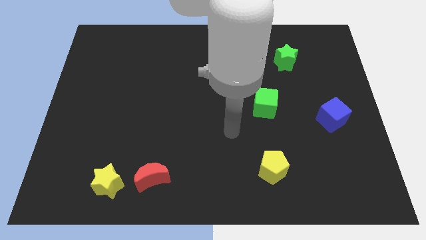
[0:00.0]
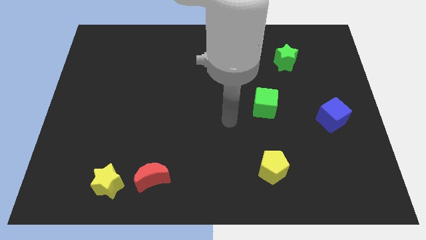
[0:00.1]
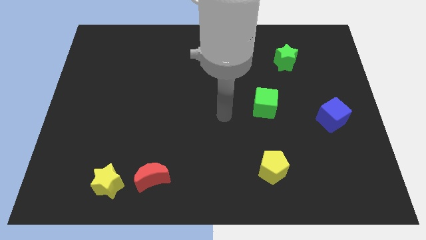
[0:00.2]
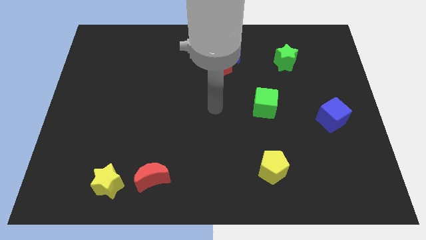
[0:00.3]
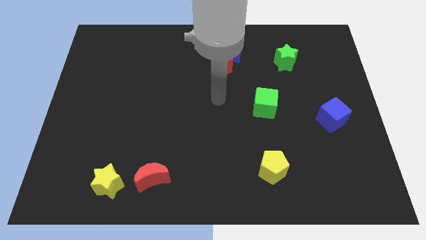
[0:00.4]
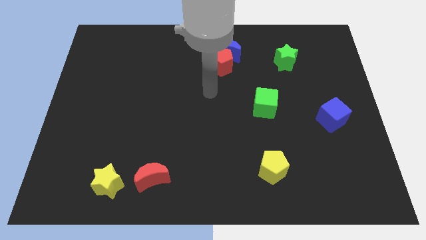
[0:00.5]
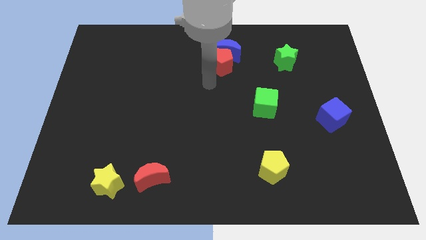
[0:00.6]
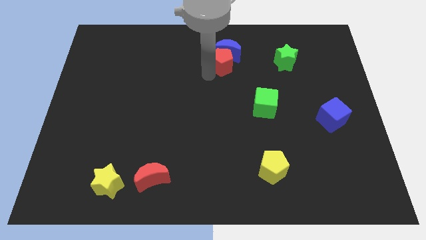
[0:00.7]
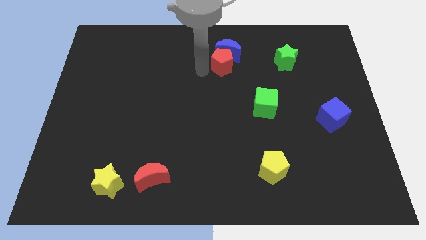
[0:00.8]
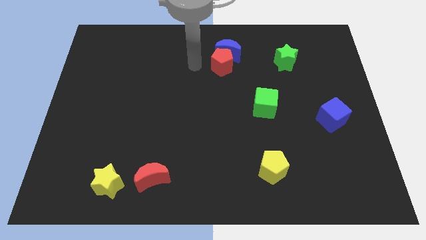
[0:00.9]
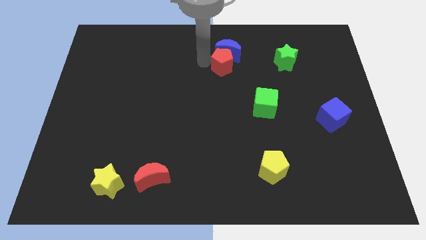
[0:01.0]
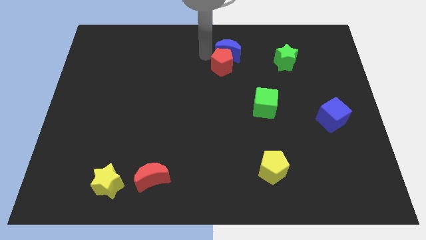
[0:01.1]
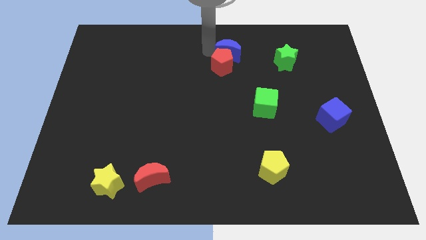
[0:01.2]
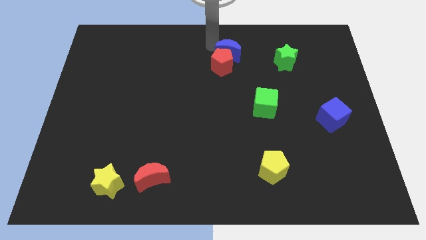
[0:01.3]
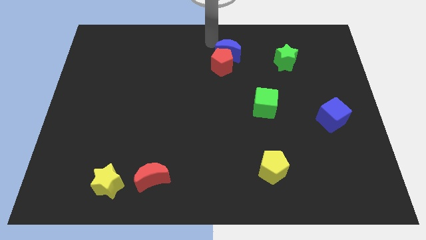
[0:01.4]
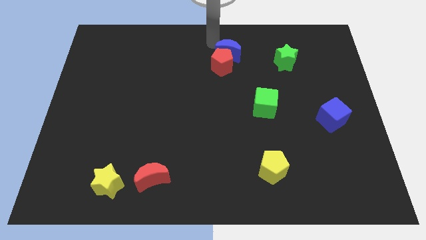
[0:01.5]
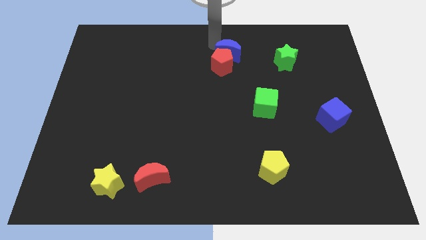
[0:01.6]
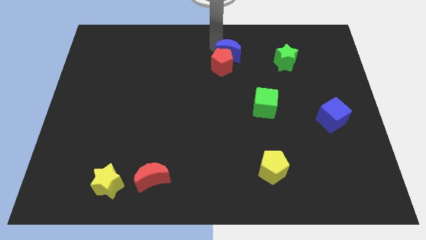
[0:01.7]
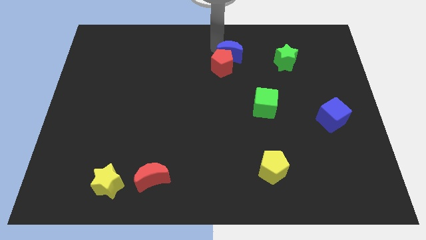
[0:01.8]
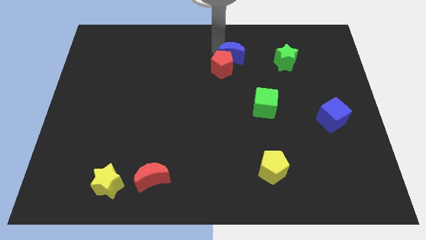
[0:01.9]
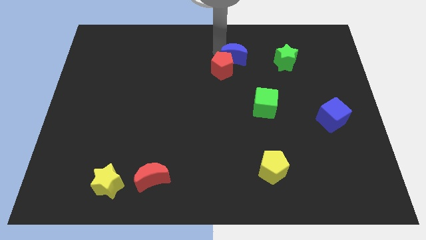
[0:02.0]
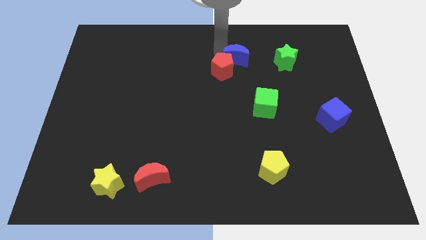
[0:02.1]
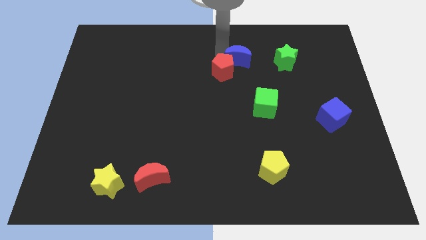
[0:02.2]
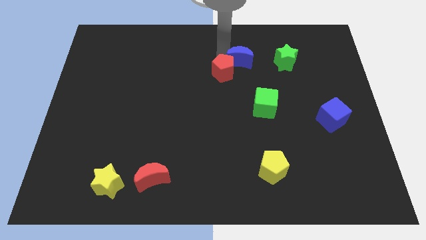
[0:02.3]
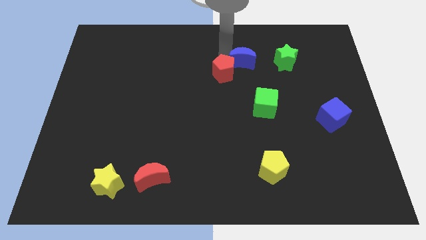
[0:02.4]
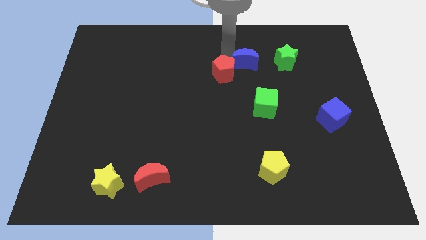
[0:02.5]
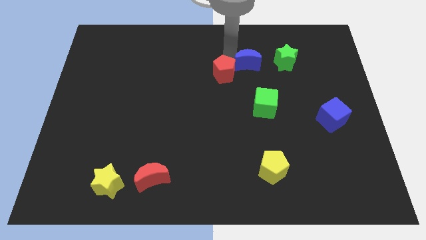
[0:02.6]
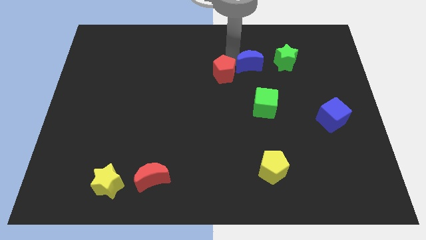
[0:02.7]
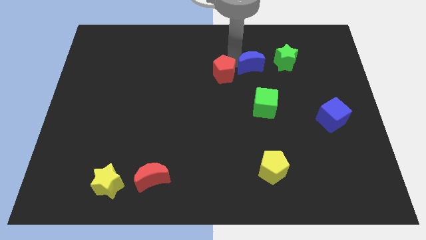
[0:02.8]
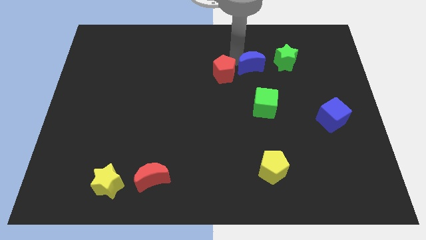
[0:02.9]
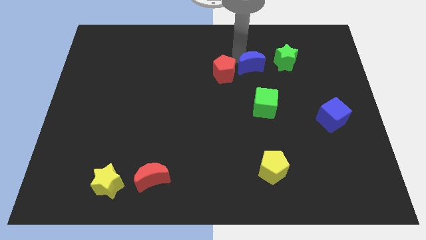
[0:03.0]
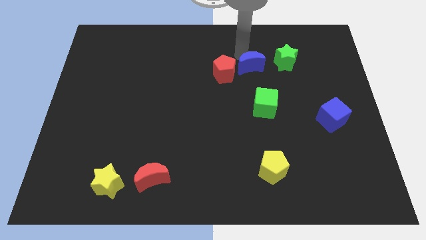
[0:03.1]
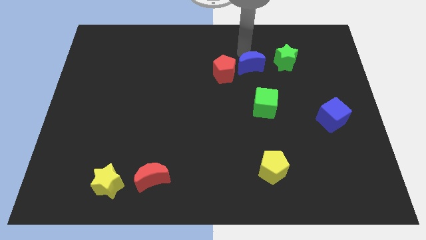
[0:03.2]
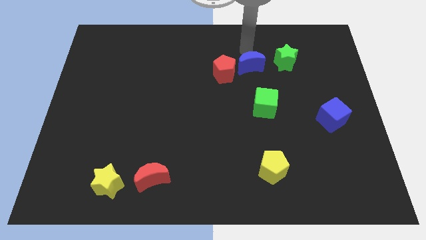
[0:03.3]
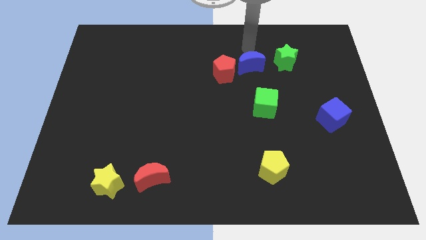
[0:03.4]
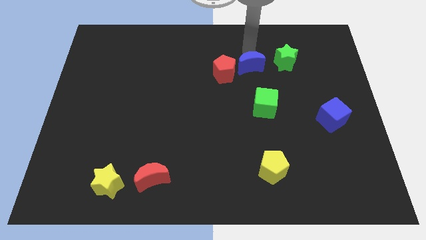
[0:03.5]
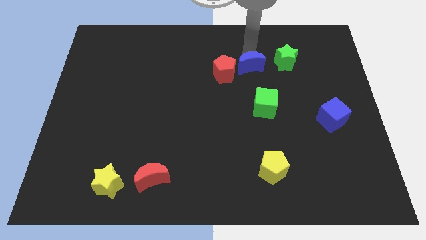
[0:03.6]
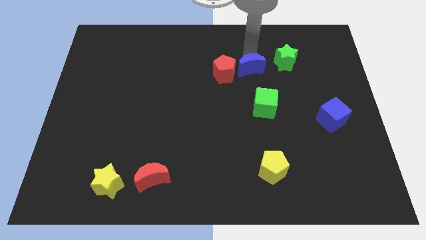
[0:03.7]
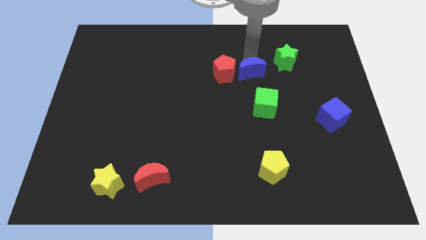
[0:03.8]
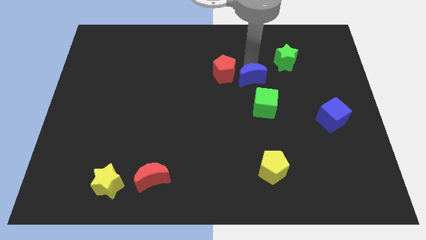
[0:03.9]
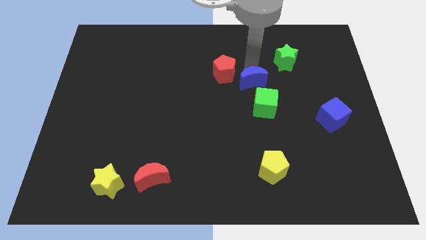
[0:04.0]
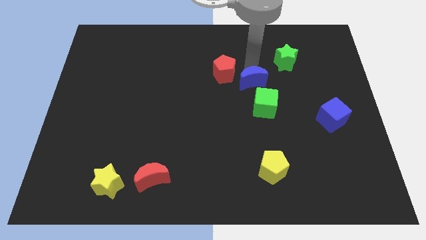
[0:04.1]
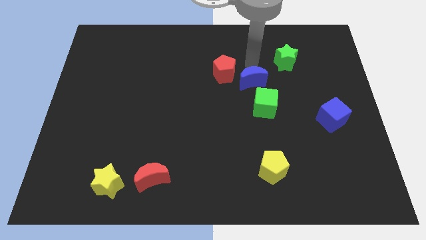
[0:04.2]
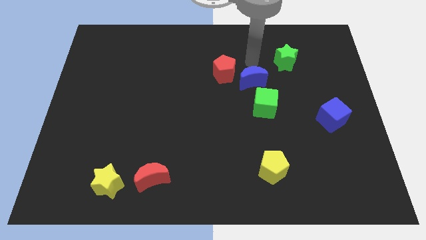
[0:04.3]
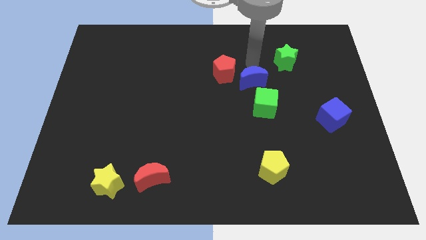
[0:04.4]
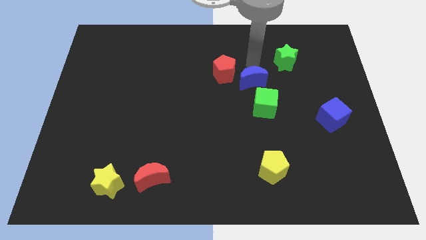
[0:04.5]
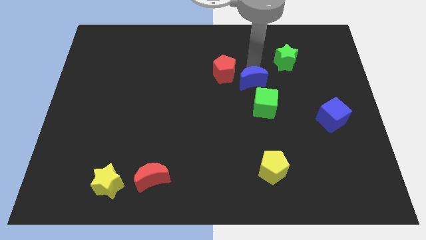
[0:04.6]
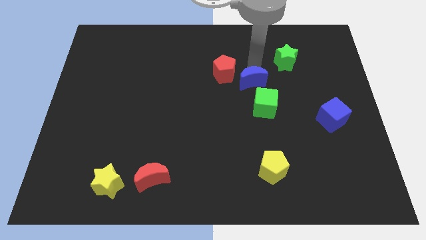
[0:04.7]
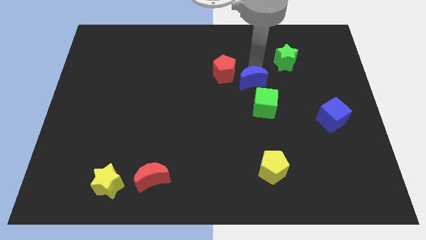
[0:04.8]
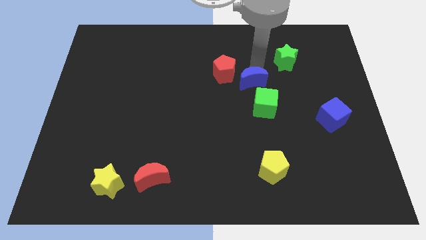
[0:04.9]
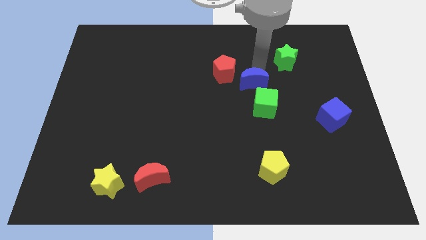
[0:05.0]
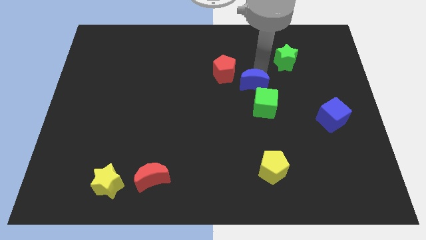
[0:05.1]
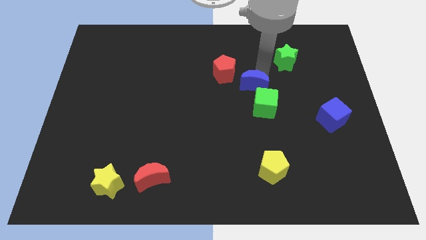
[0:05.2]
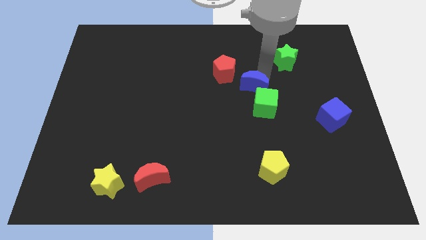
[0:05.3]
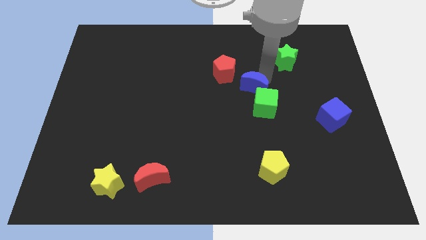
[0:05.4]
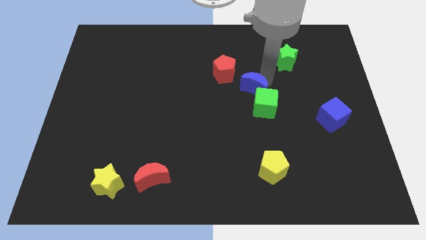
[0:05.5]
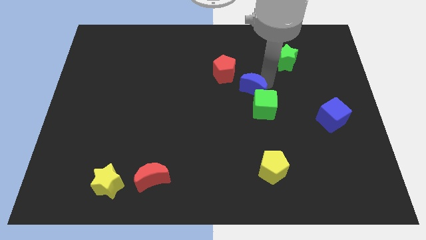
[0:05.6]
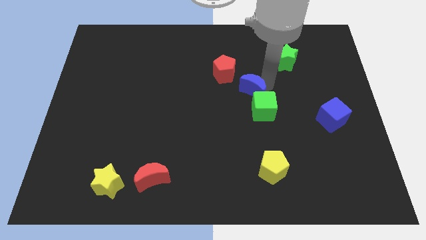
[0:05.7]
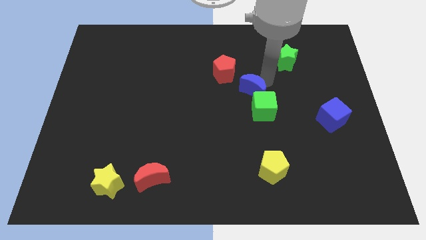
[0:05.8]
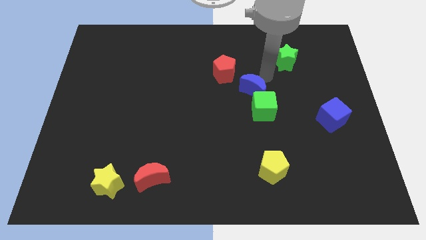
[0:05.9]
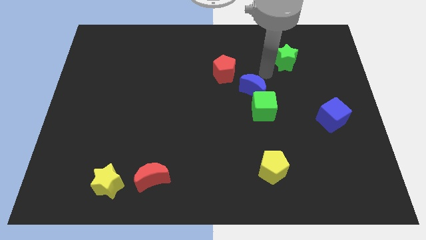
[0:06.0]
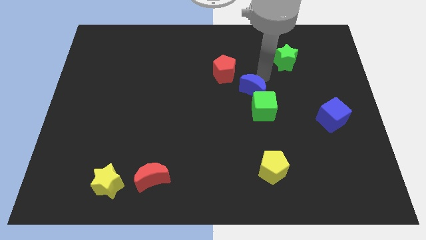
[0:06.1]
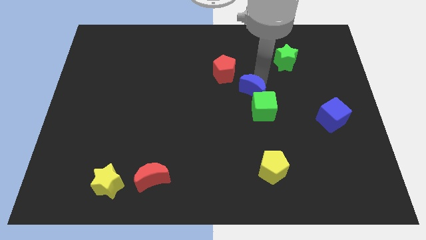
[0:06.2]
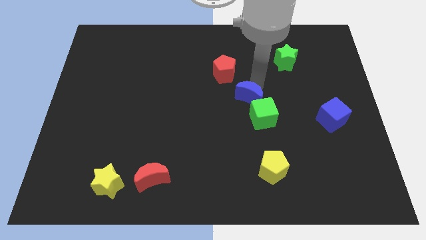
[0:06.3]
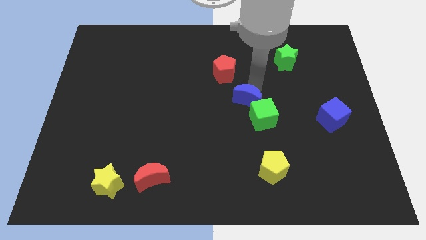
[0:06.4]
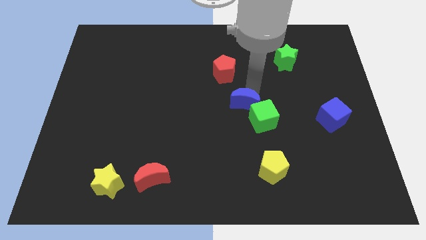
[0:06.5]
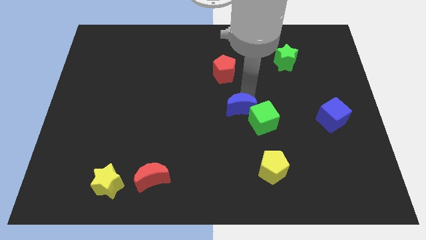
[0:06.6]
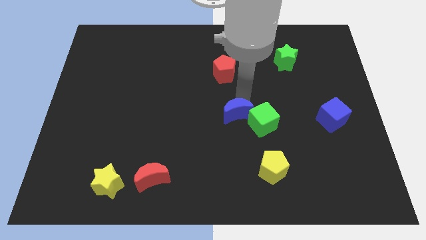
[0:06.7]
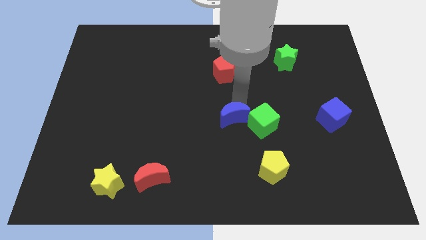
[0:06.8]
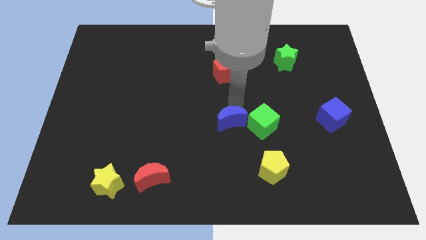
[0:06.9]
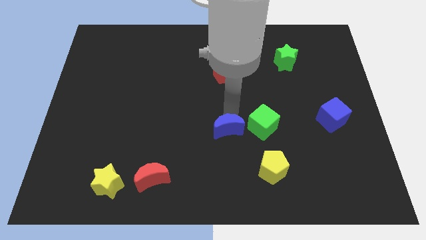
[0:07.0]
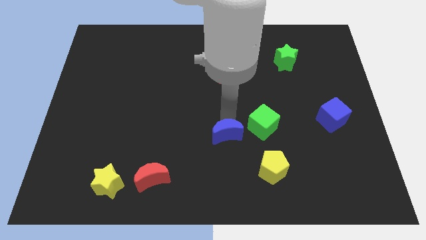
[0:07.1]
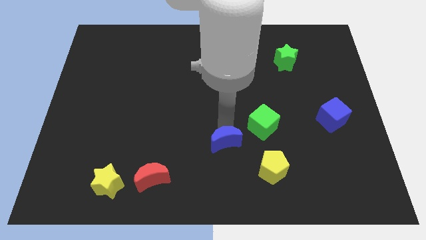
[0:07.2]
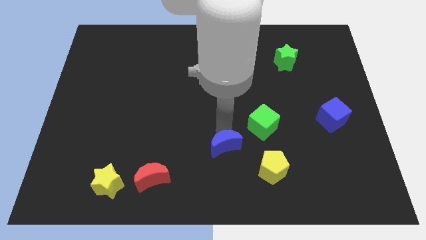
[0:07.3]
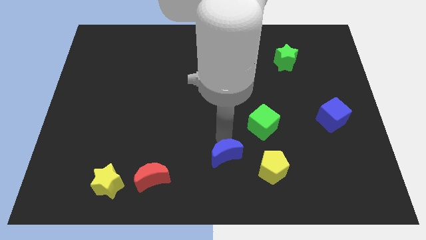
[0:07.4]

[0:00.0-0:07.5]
move the blue moon to the bottom
